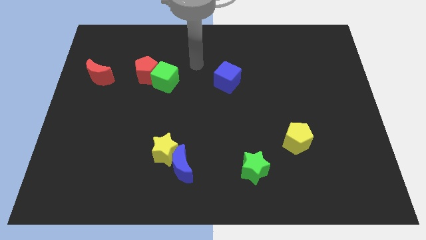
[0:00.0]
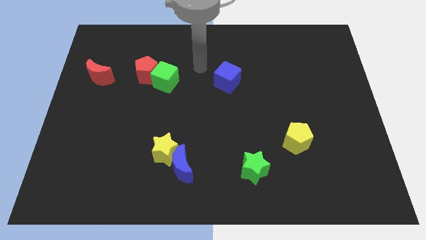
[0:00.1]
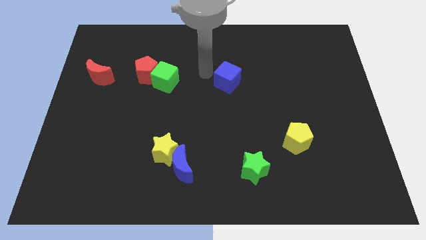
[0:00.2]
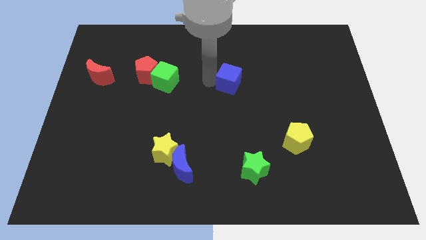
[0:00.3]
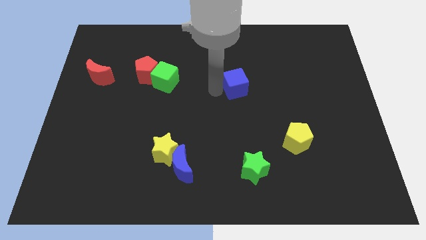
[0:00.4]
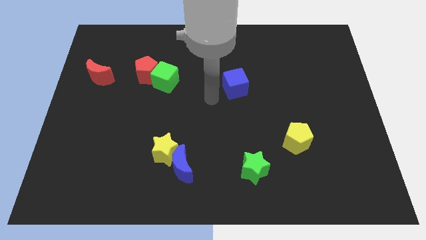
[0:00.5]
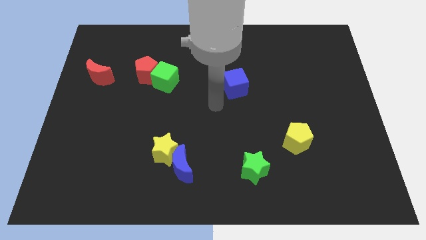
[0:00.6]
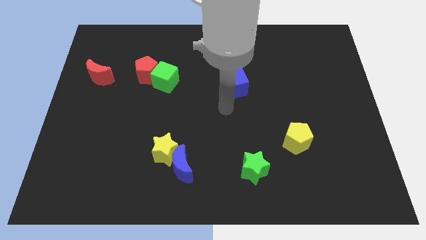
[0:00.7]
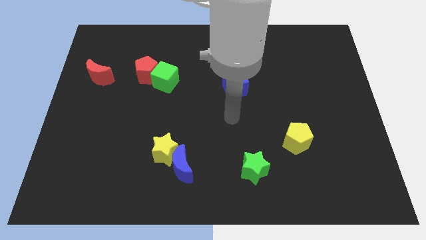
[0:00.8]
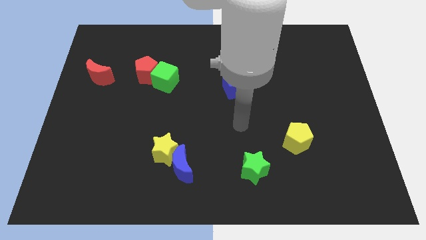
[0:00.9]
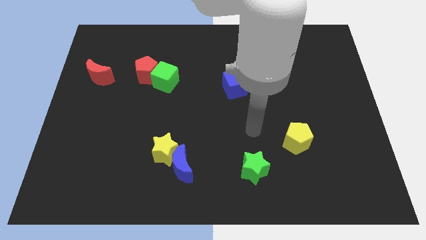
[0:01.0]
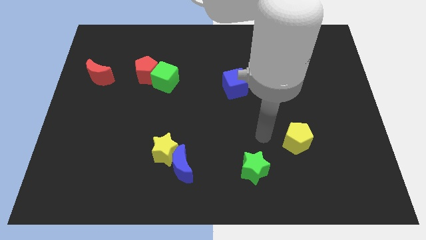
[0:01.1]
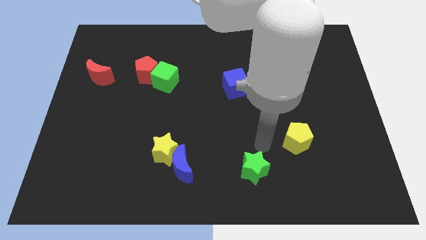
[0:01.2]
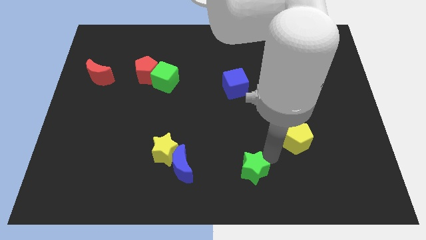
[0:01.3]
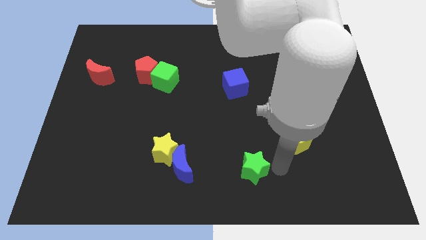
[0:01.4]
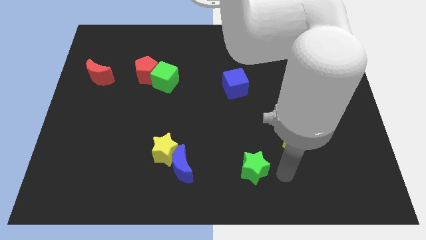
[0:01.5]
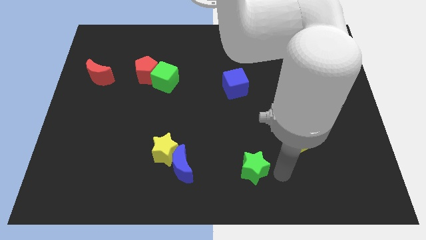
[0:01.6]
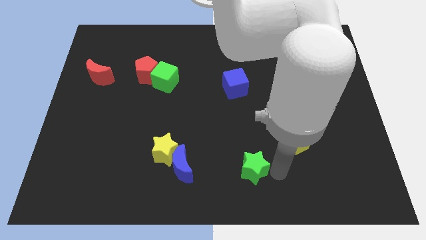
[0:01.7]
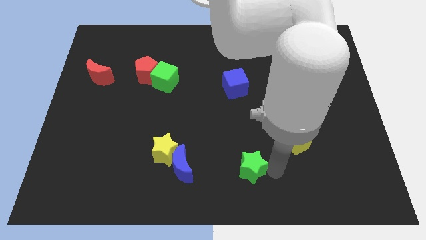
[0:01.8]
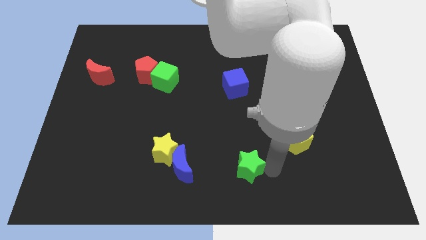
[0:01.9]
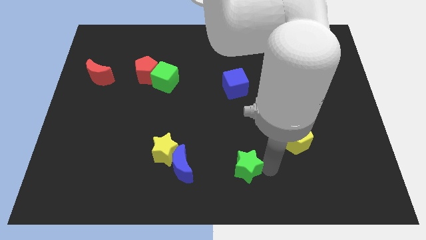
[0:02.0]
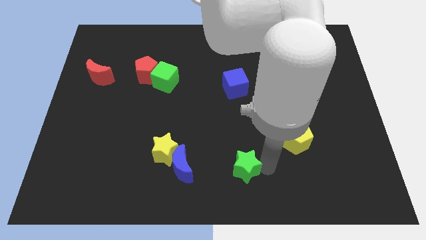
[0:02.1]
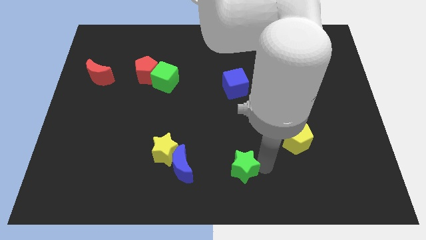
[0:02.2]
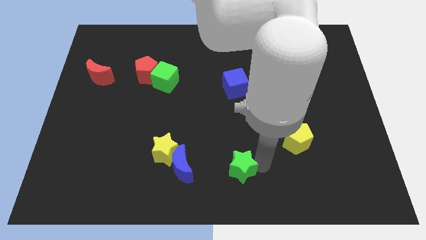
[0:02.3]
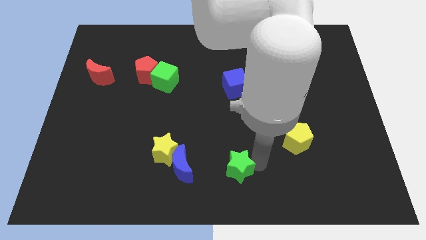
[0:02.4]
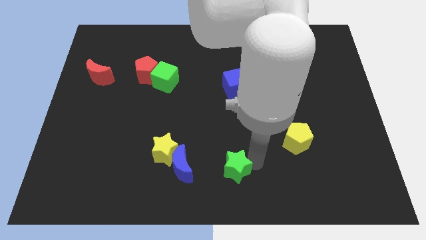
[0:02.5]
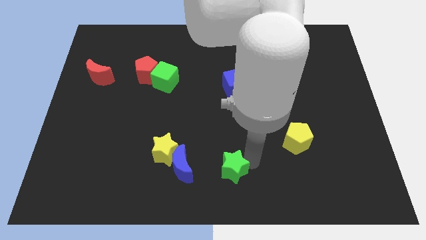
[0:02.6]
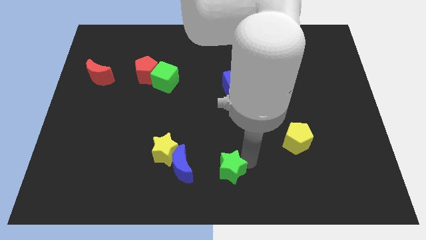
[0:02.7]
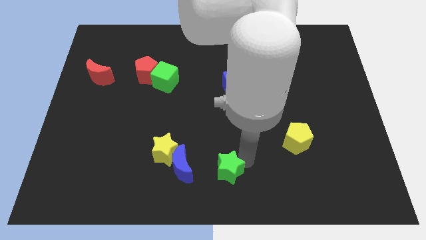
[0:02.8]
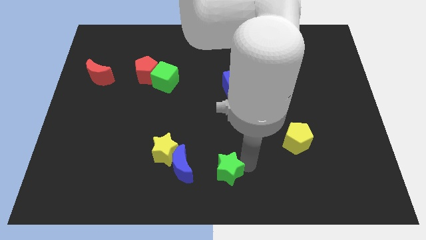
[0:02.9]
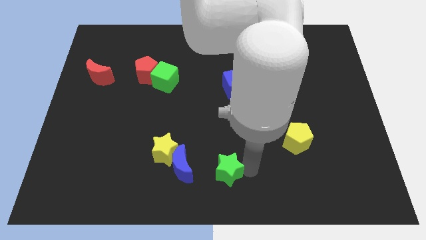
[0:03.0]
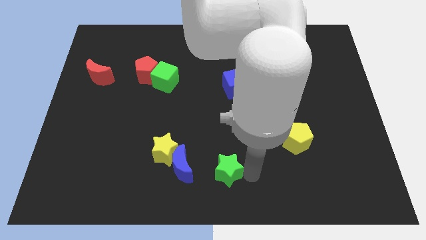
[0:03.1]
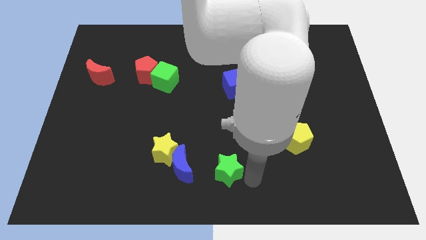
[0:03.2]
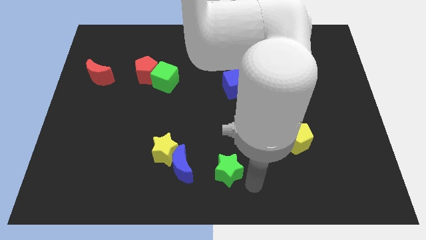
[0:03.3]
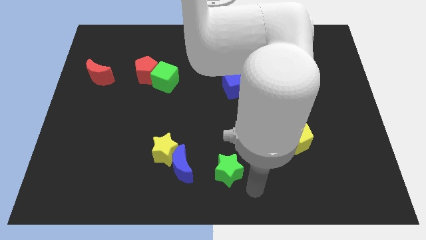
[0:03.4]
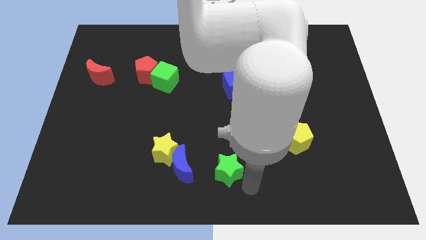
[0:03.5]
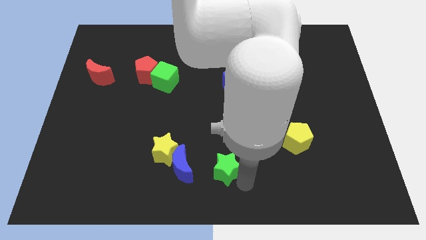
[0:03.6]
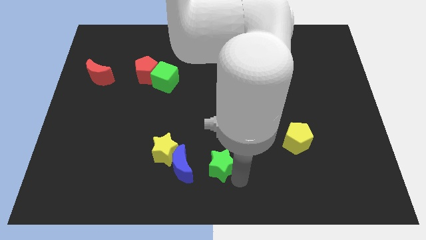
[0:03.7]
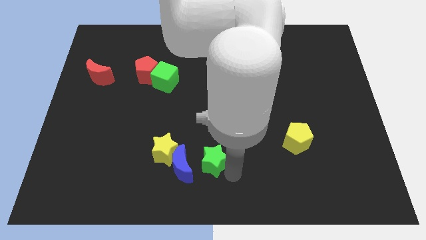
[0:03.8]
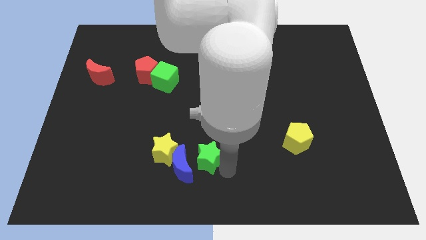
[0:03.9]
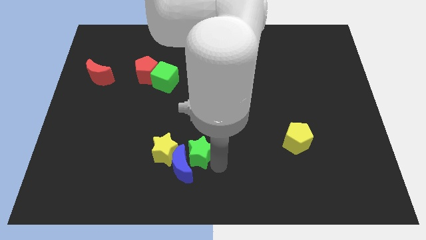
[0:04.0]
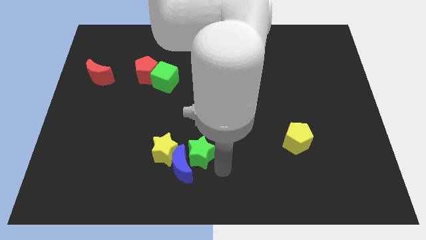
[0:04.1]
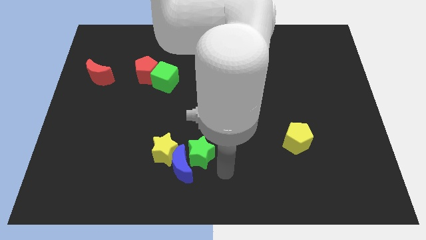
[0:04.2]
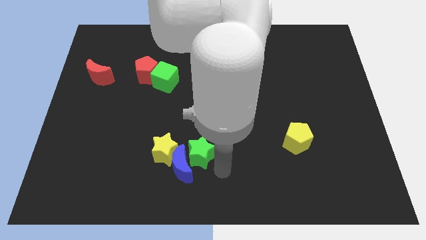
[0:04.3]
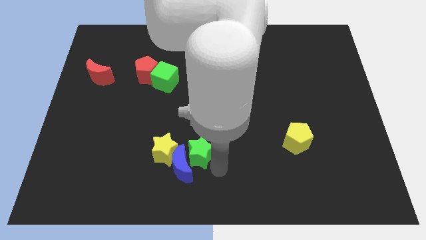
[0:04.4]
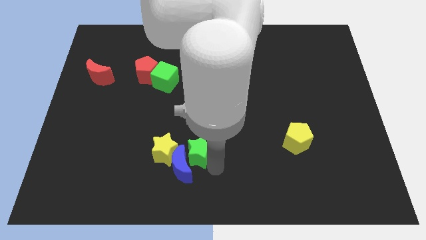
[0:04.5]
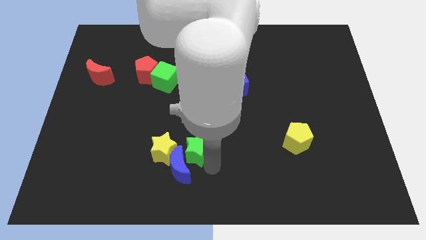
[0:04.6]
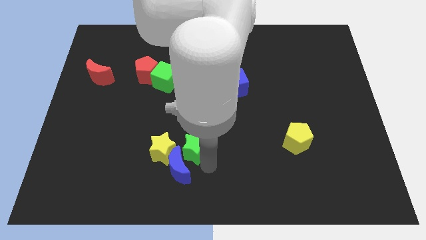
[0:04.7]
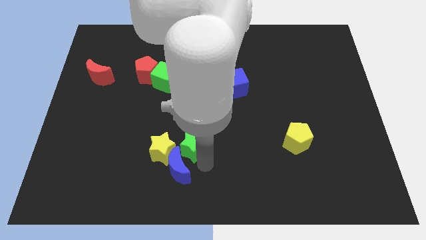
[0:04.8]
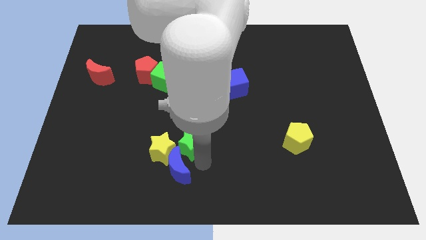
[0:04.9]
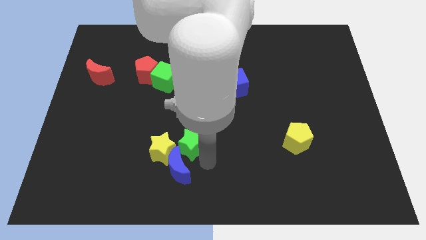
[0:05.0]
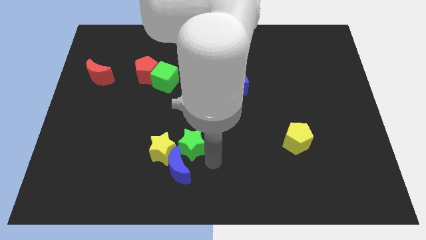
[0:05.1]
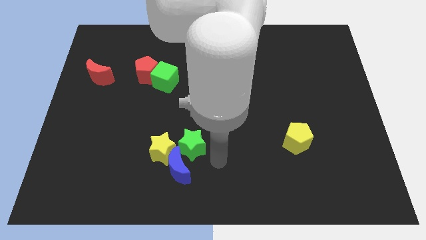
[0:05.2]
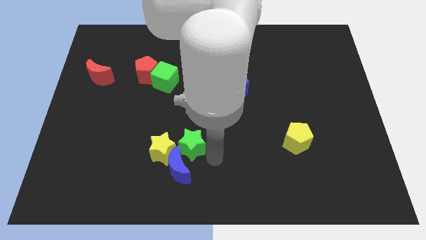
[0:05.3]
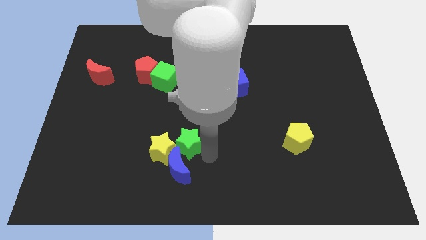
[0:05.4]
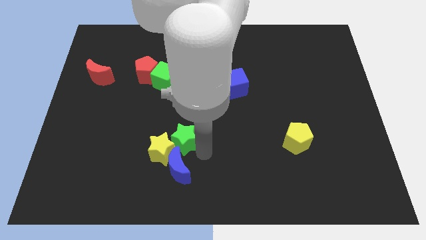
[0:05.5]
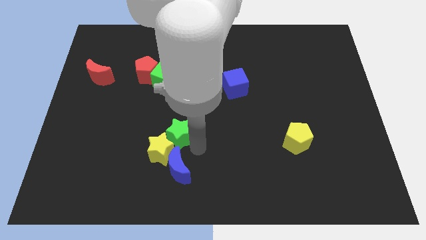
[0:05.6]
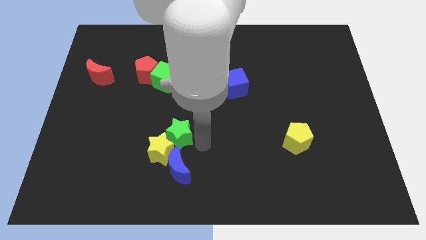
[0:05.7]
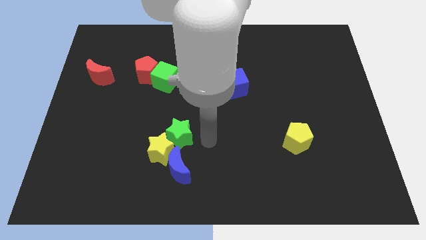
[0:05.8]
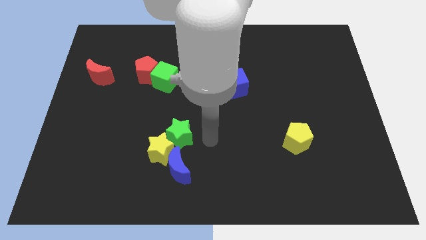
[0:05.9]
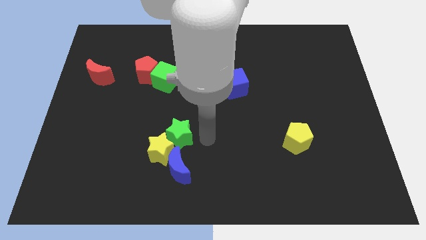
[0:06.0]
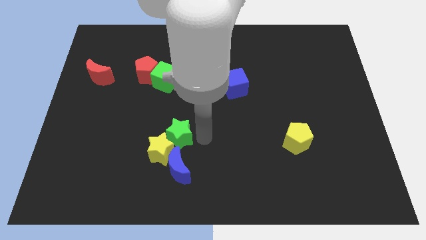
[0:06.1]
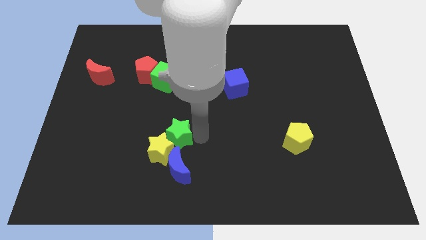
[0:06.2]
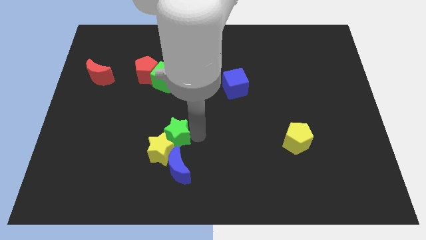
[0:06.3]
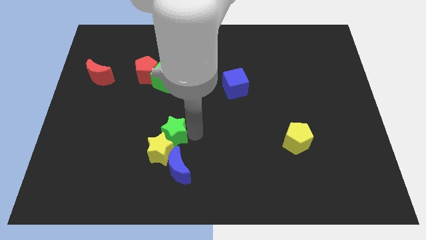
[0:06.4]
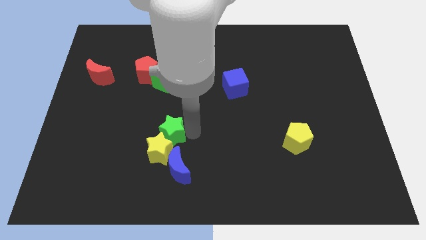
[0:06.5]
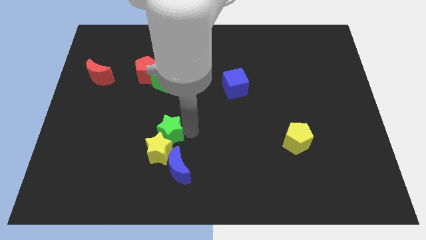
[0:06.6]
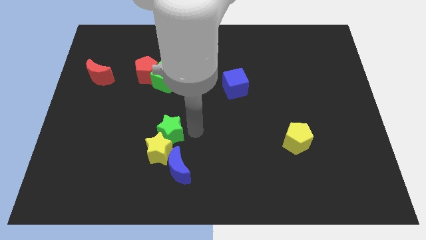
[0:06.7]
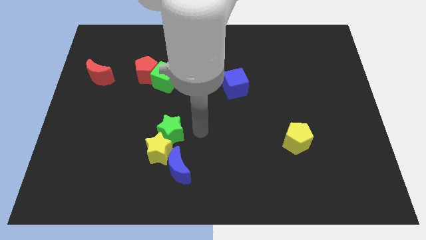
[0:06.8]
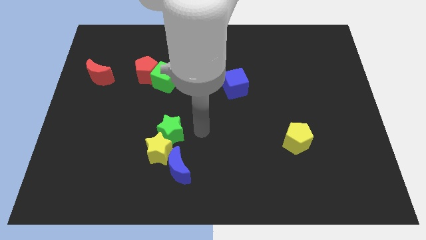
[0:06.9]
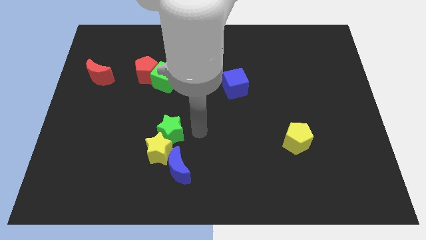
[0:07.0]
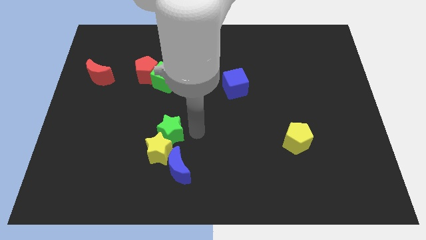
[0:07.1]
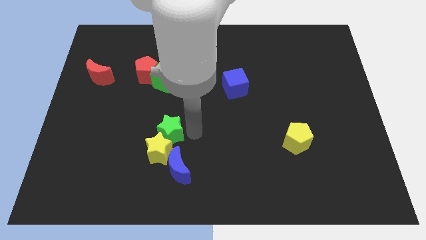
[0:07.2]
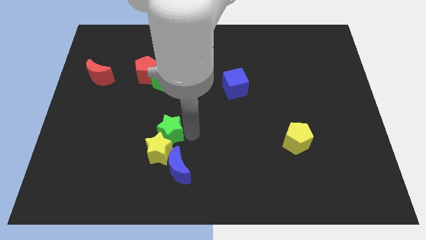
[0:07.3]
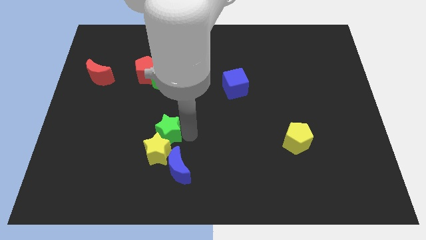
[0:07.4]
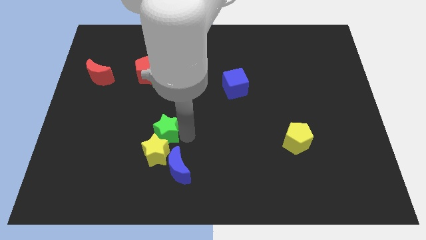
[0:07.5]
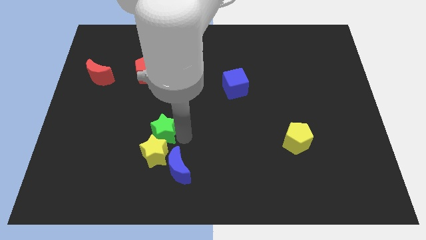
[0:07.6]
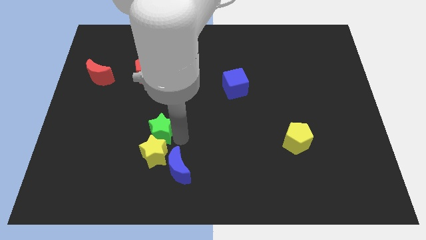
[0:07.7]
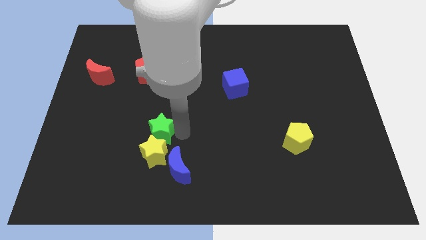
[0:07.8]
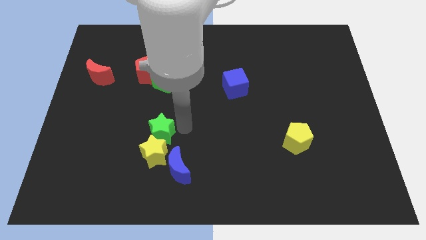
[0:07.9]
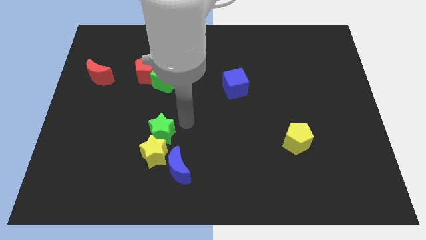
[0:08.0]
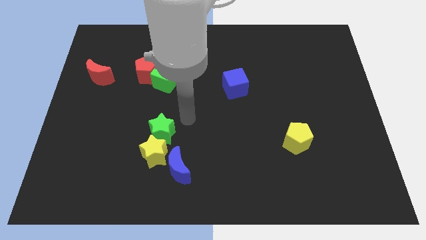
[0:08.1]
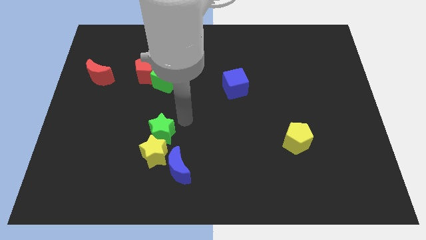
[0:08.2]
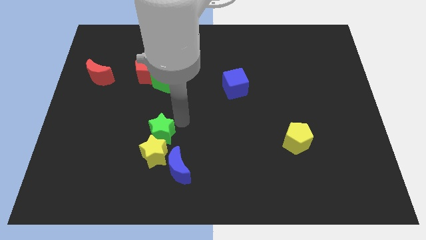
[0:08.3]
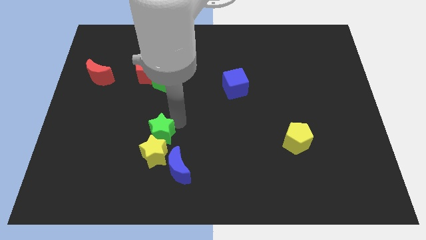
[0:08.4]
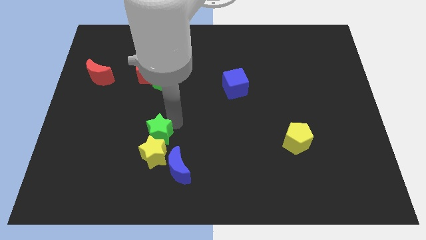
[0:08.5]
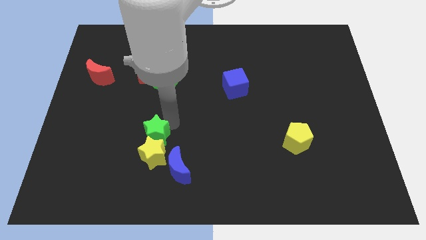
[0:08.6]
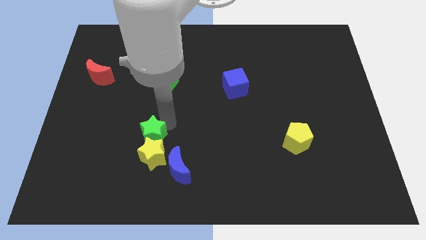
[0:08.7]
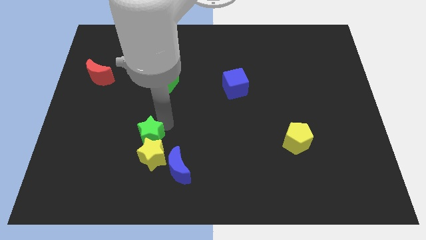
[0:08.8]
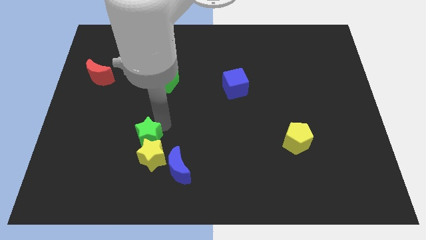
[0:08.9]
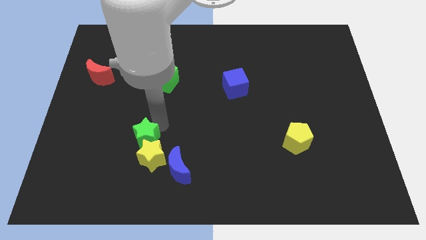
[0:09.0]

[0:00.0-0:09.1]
move the green star left
